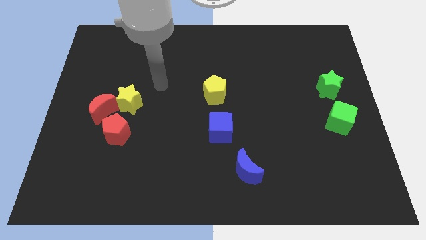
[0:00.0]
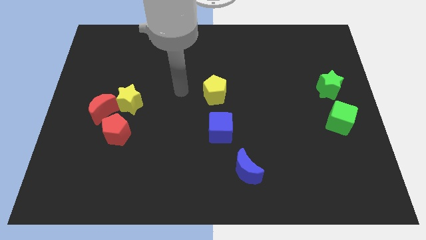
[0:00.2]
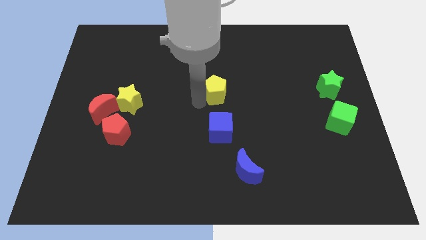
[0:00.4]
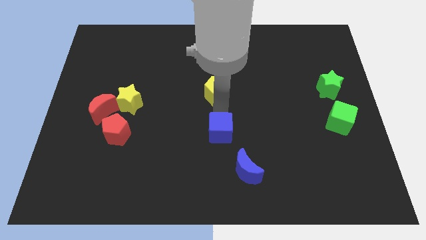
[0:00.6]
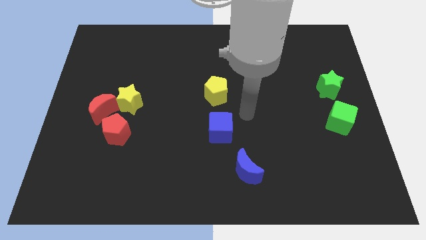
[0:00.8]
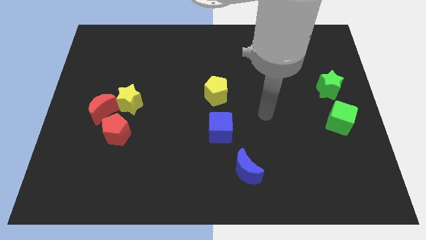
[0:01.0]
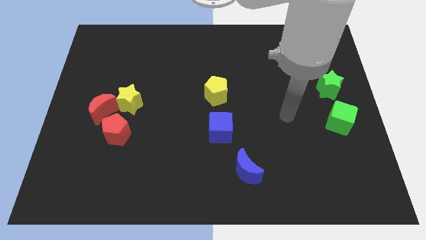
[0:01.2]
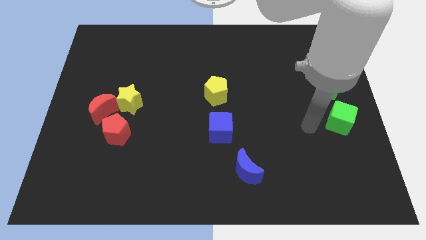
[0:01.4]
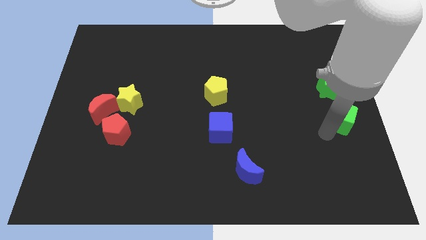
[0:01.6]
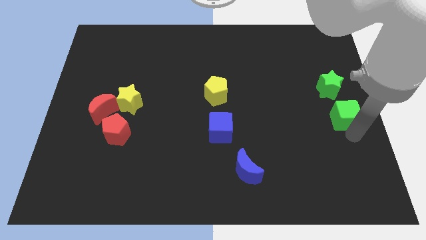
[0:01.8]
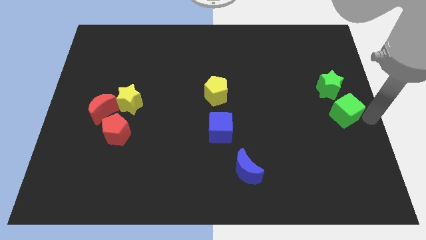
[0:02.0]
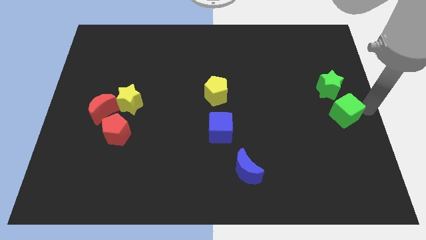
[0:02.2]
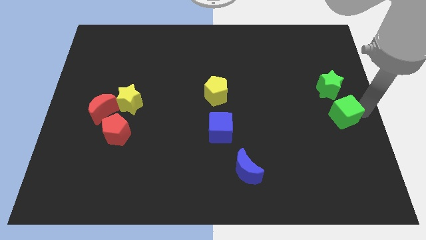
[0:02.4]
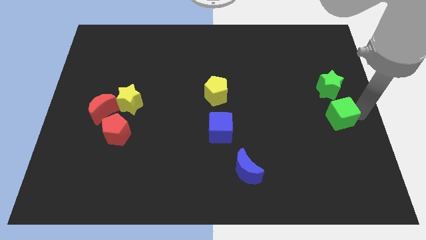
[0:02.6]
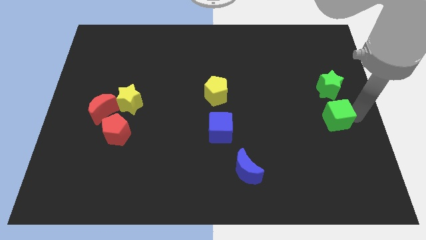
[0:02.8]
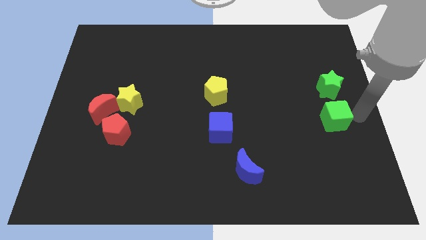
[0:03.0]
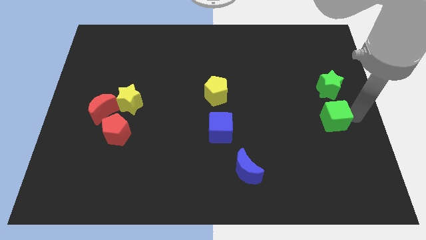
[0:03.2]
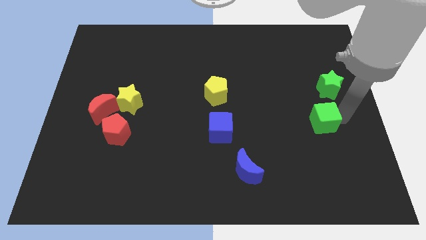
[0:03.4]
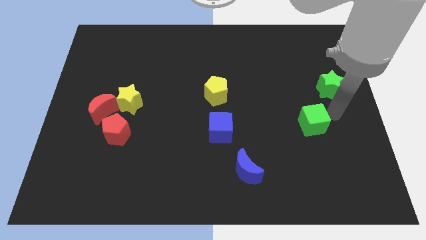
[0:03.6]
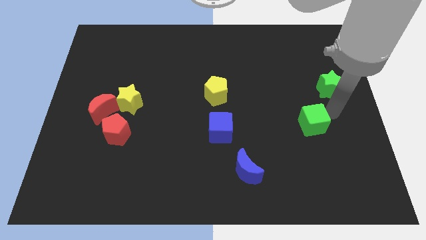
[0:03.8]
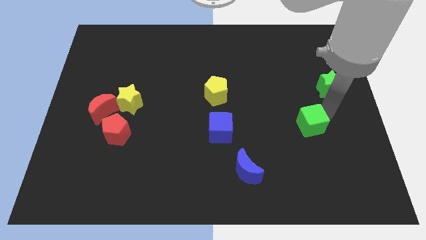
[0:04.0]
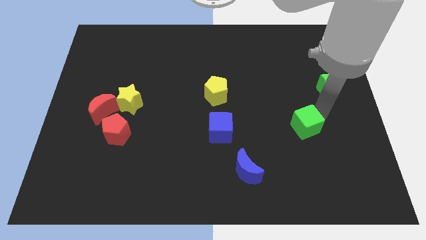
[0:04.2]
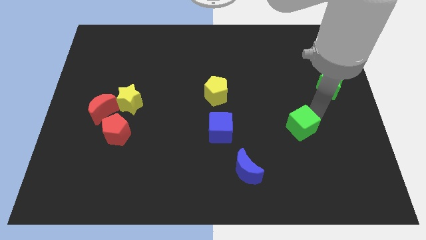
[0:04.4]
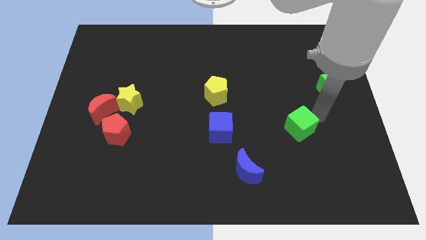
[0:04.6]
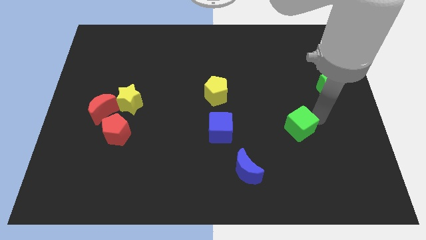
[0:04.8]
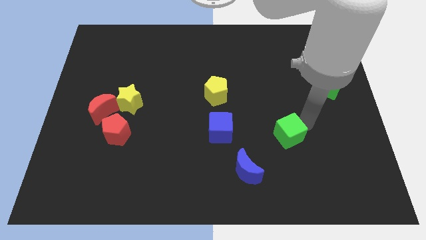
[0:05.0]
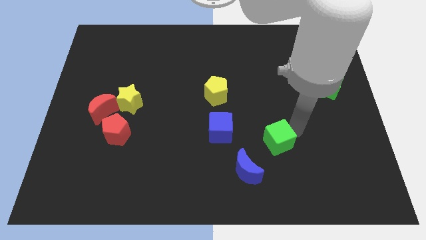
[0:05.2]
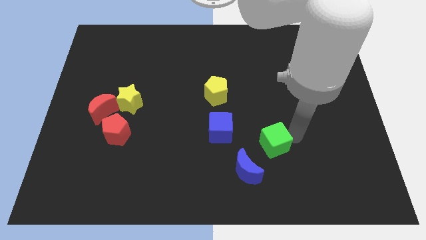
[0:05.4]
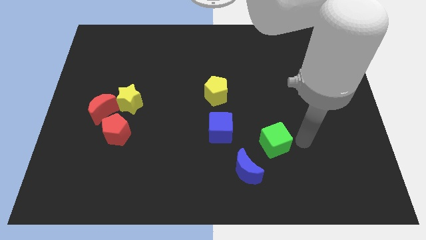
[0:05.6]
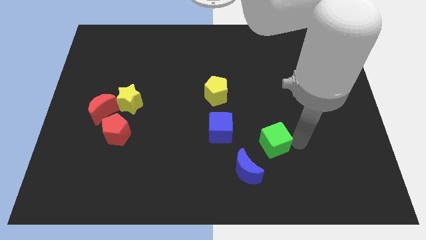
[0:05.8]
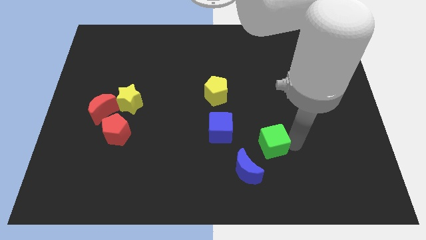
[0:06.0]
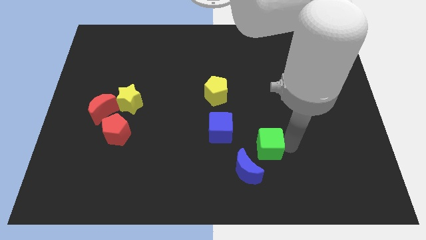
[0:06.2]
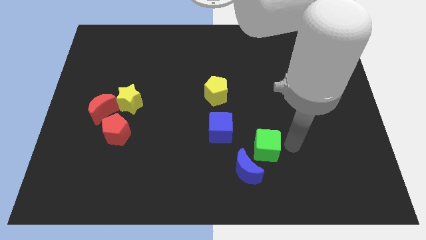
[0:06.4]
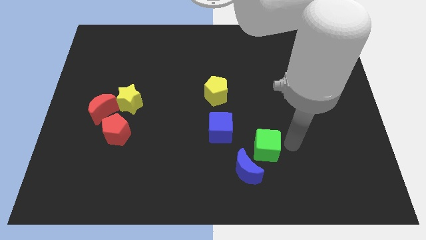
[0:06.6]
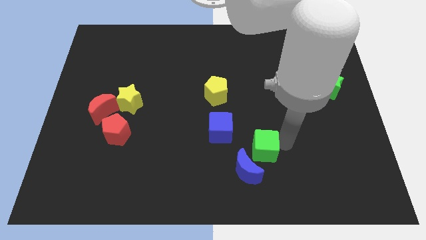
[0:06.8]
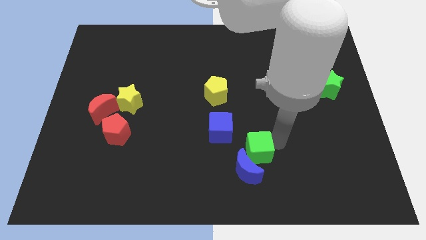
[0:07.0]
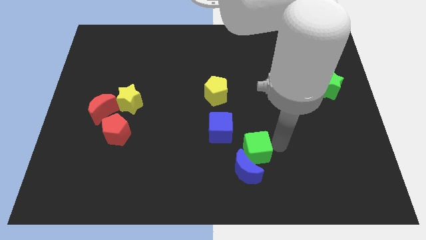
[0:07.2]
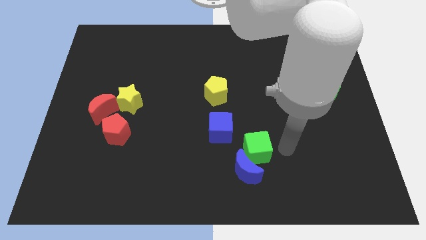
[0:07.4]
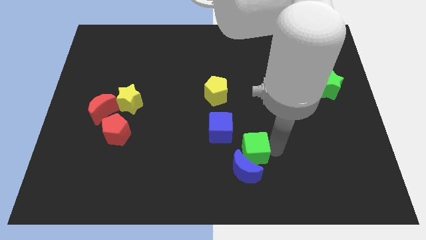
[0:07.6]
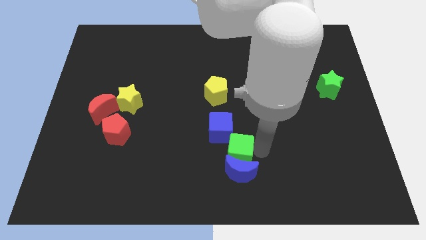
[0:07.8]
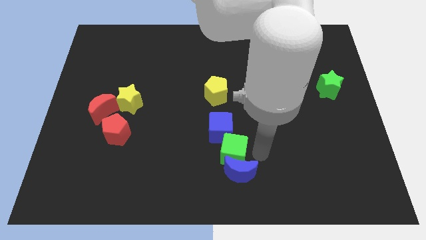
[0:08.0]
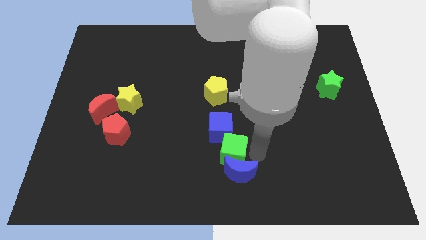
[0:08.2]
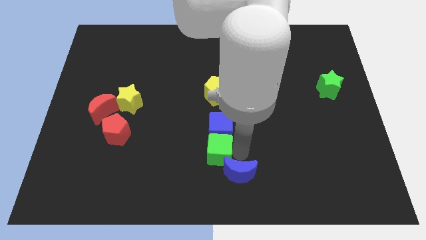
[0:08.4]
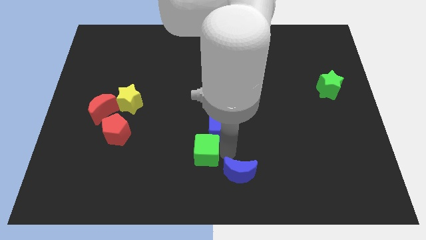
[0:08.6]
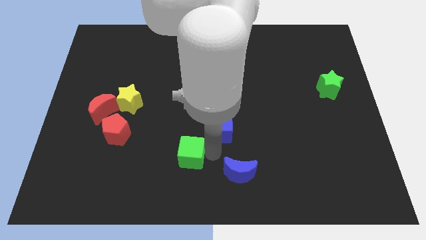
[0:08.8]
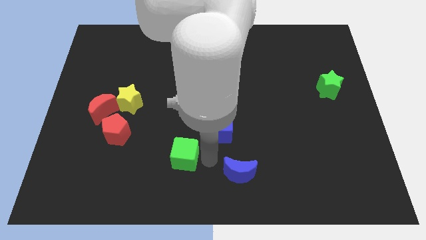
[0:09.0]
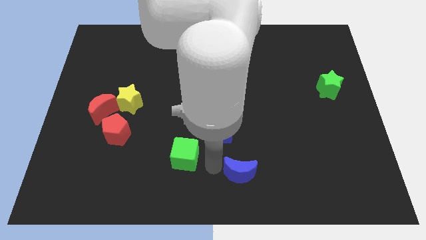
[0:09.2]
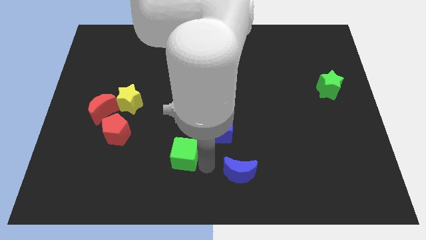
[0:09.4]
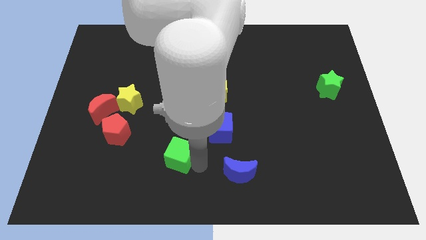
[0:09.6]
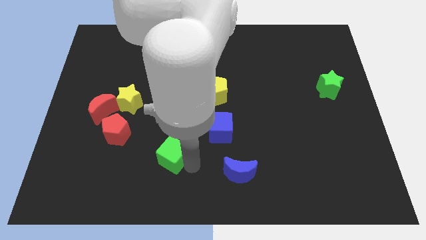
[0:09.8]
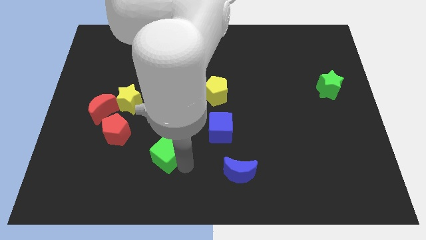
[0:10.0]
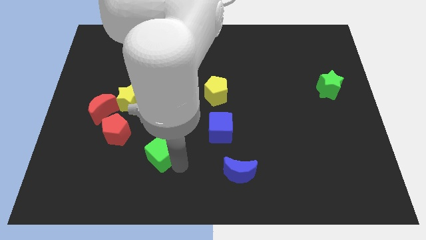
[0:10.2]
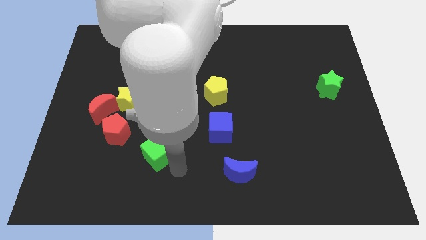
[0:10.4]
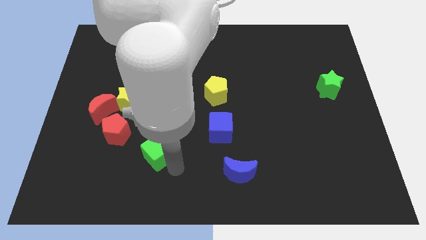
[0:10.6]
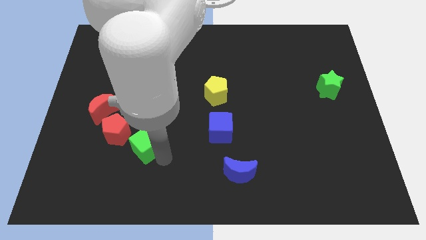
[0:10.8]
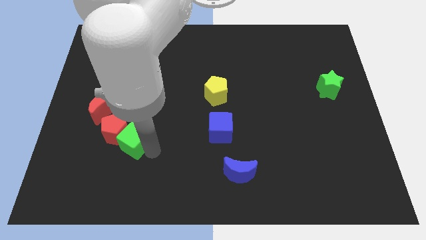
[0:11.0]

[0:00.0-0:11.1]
push the green cube towards the red pentagon

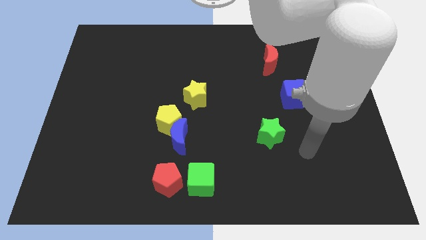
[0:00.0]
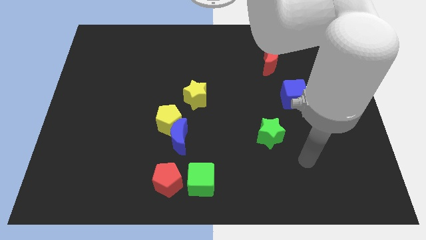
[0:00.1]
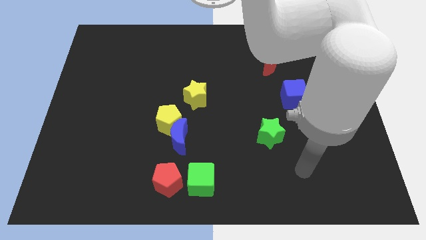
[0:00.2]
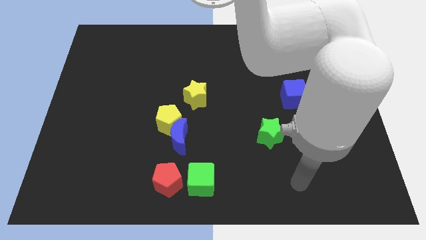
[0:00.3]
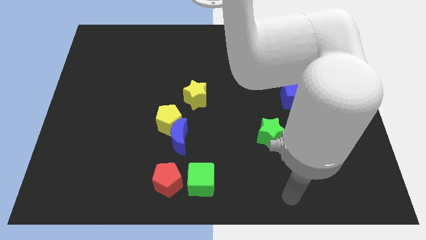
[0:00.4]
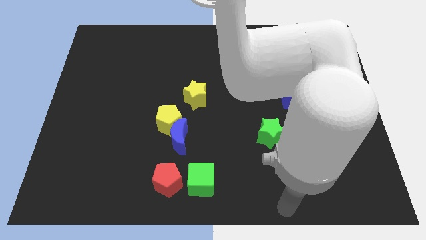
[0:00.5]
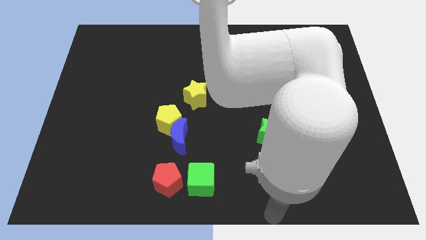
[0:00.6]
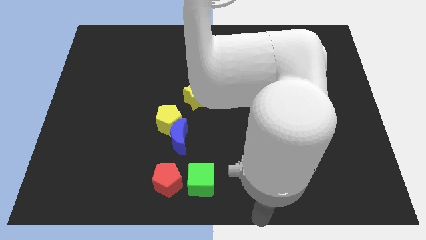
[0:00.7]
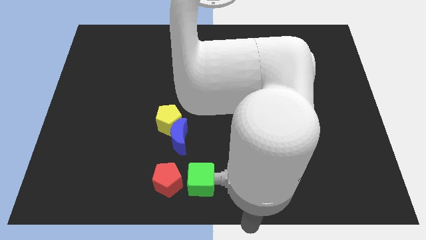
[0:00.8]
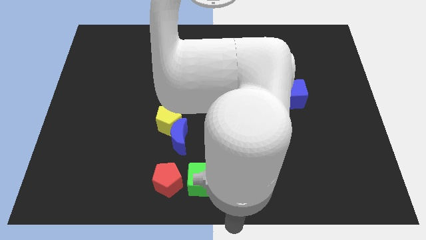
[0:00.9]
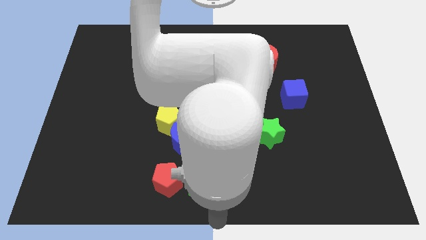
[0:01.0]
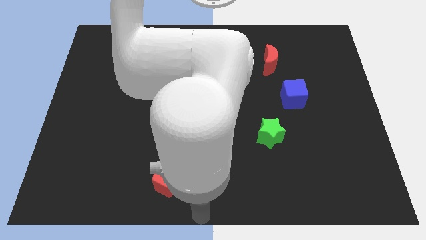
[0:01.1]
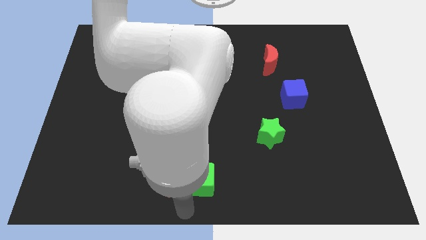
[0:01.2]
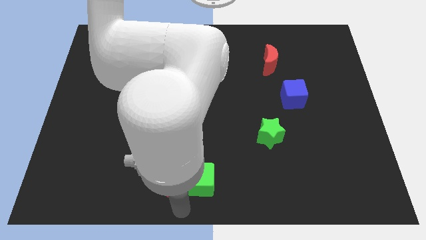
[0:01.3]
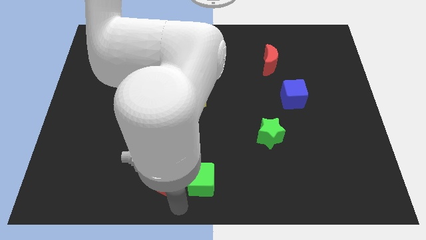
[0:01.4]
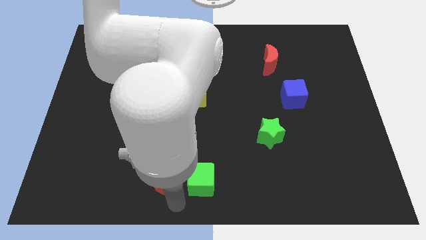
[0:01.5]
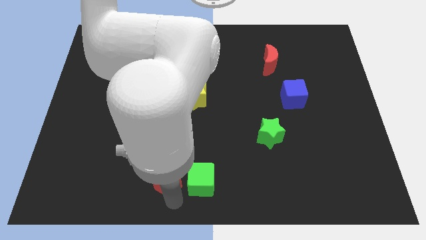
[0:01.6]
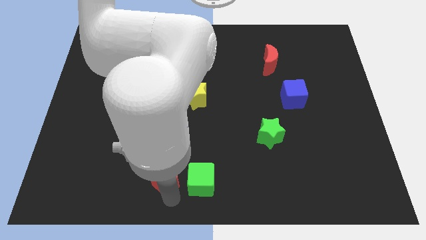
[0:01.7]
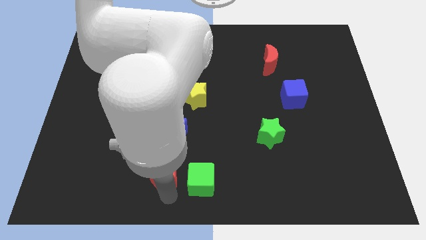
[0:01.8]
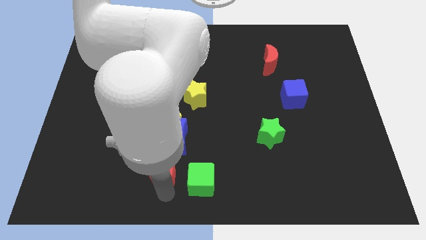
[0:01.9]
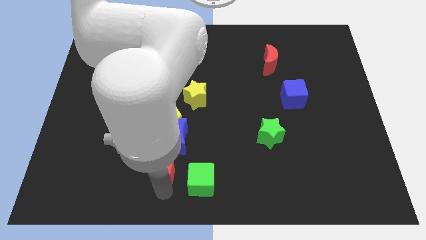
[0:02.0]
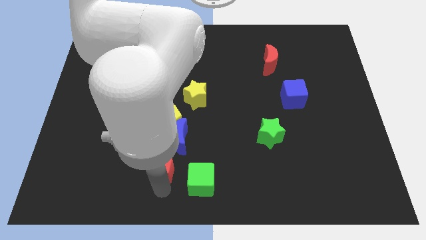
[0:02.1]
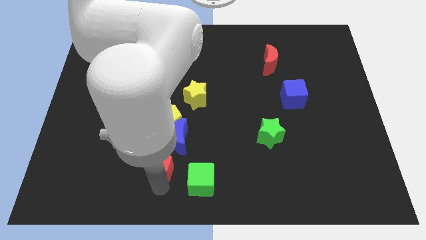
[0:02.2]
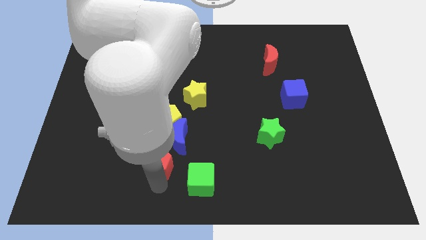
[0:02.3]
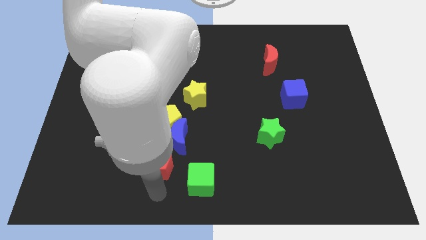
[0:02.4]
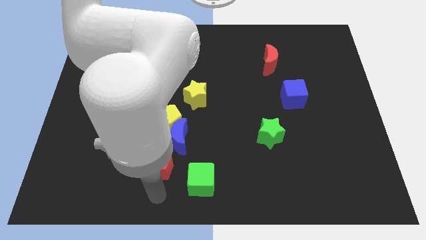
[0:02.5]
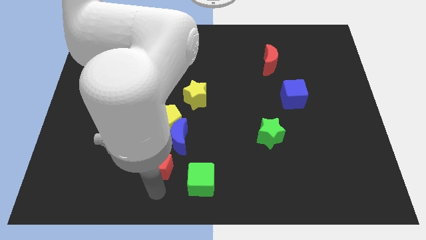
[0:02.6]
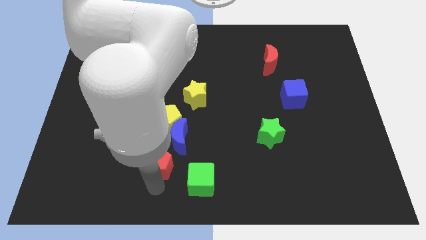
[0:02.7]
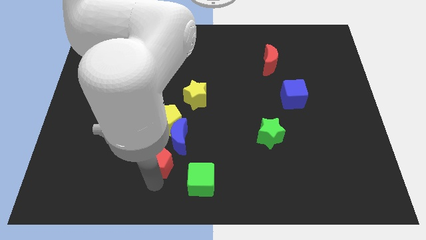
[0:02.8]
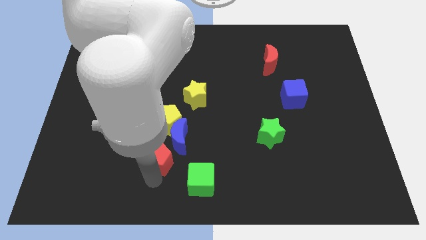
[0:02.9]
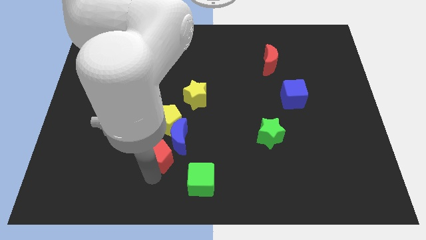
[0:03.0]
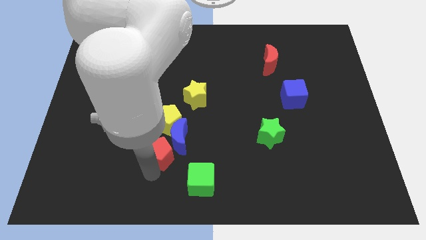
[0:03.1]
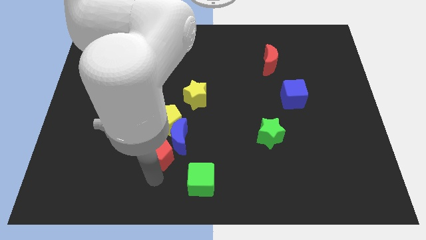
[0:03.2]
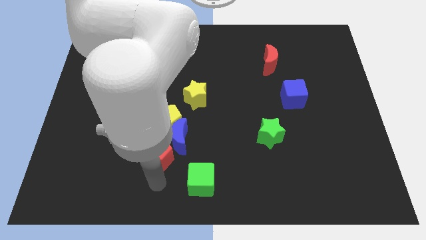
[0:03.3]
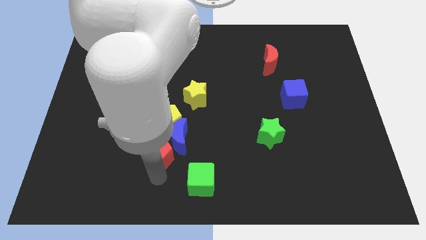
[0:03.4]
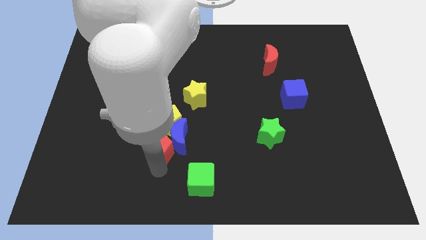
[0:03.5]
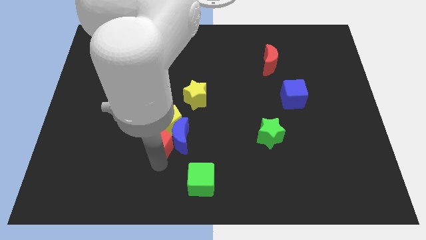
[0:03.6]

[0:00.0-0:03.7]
push the red pentagon next to the yellow pentagon
